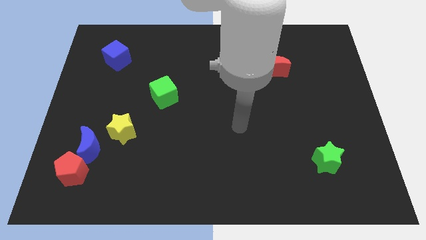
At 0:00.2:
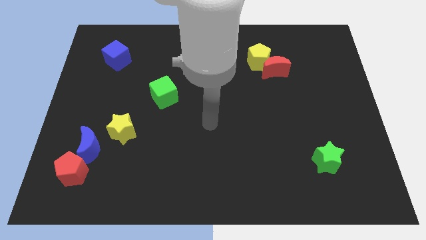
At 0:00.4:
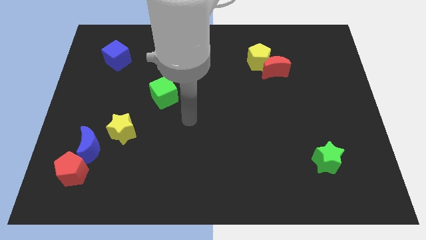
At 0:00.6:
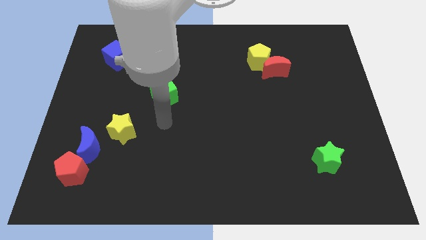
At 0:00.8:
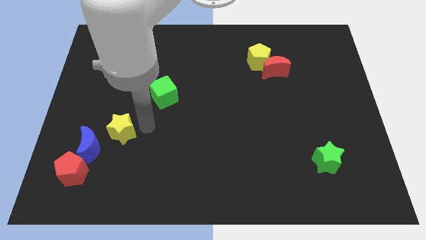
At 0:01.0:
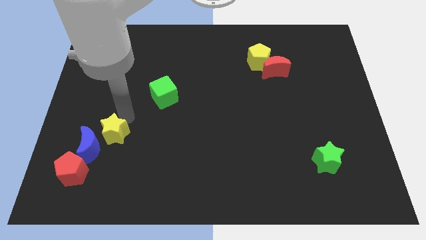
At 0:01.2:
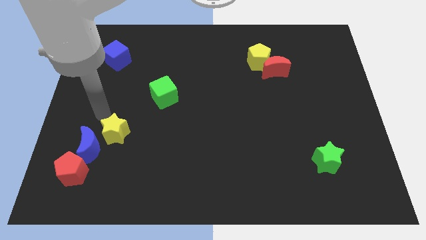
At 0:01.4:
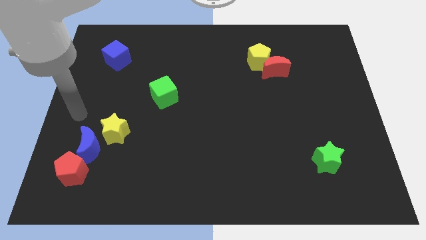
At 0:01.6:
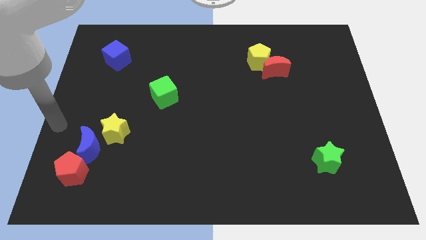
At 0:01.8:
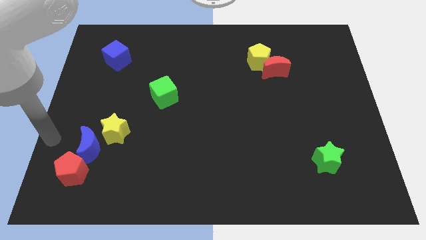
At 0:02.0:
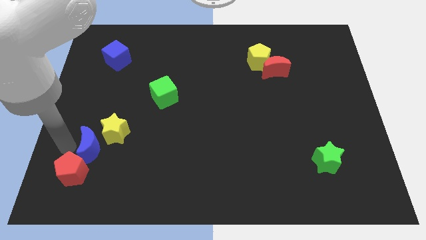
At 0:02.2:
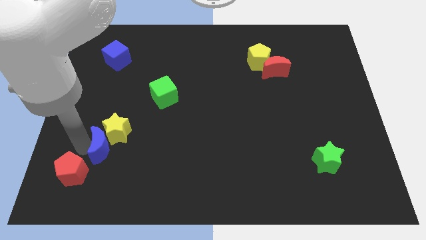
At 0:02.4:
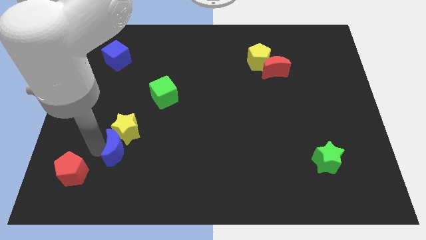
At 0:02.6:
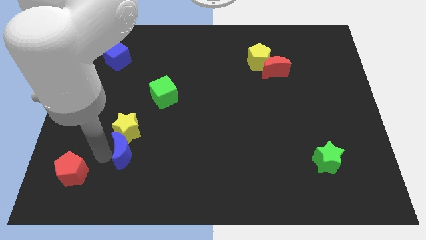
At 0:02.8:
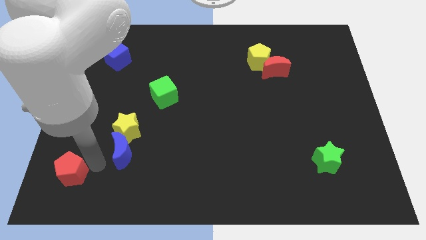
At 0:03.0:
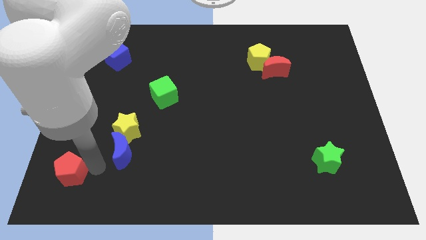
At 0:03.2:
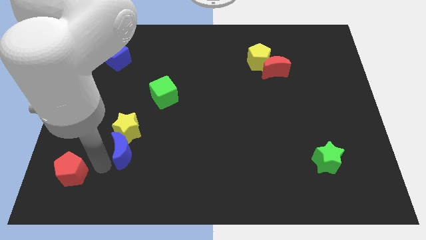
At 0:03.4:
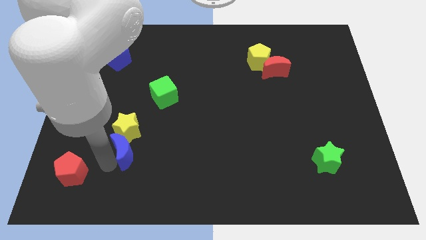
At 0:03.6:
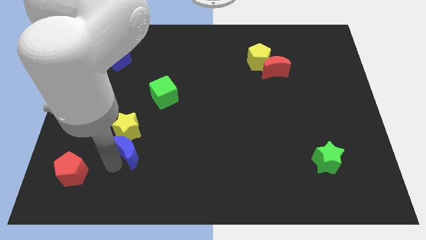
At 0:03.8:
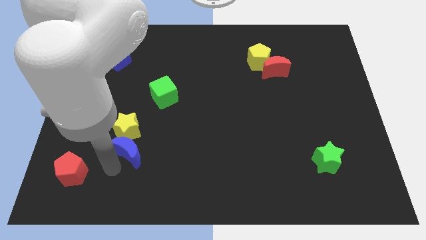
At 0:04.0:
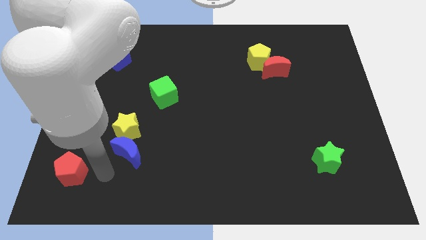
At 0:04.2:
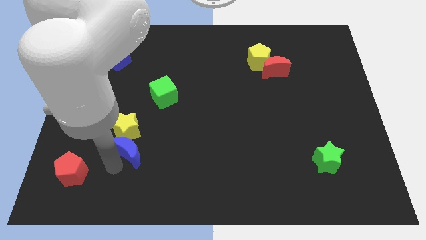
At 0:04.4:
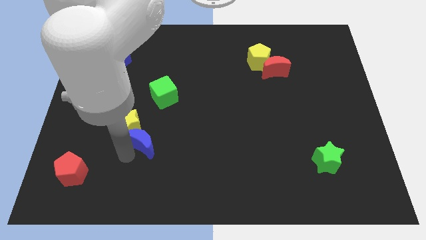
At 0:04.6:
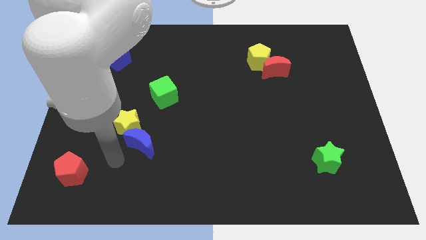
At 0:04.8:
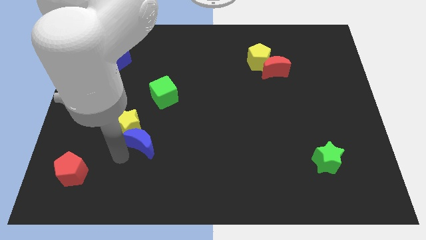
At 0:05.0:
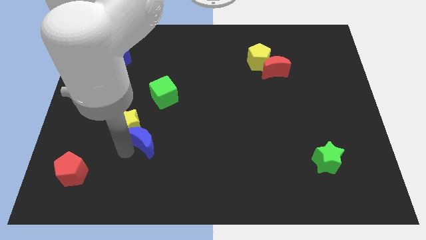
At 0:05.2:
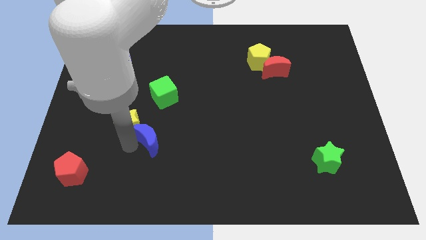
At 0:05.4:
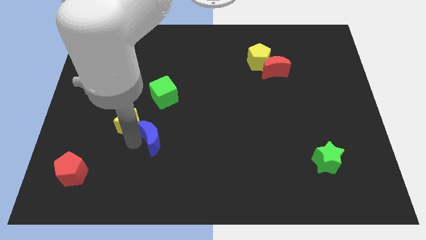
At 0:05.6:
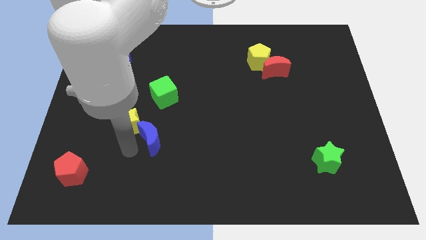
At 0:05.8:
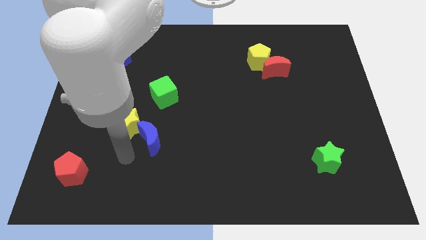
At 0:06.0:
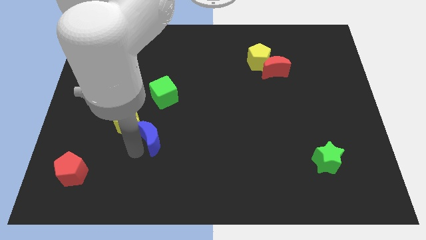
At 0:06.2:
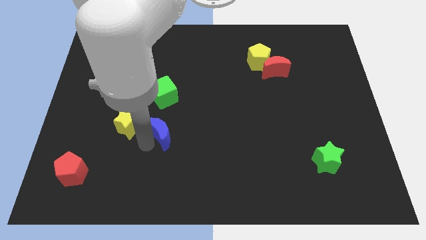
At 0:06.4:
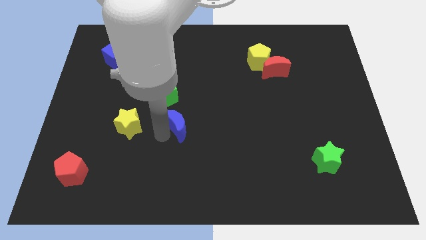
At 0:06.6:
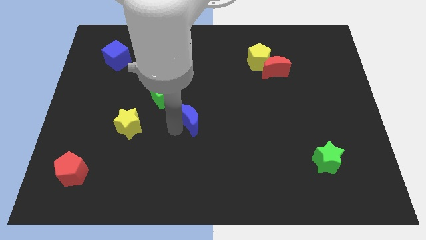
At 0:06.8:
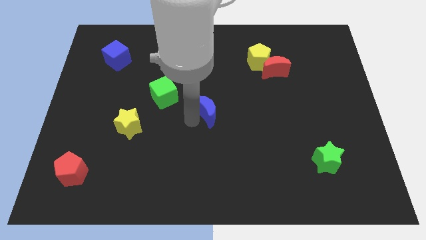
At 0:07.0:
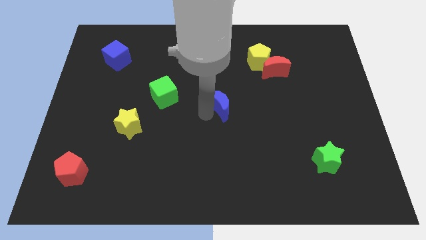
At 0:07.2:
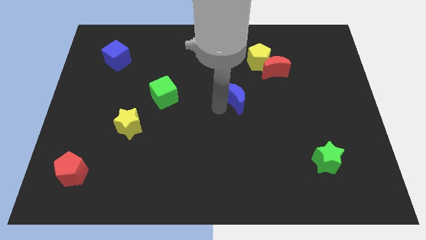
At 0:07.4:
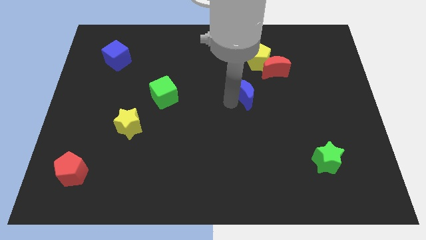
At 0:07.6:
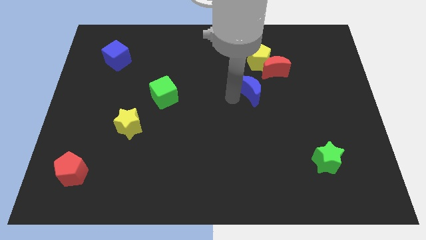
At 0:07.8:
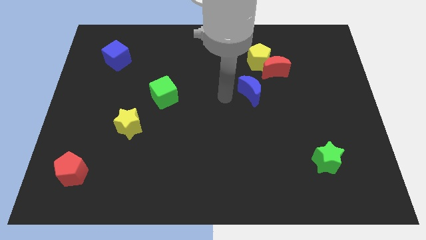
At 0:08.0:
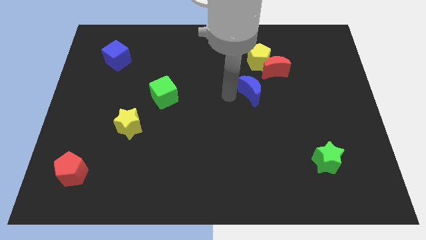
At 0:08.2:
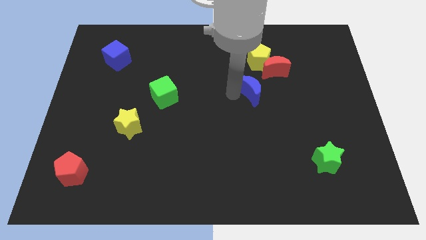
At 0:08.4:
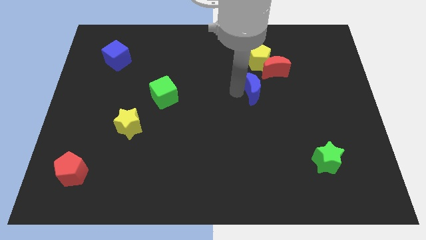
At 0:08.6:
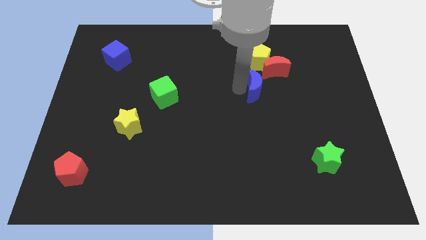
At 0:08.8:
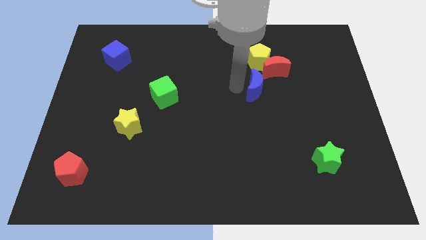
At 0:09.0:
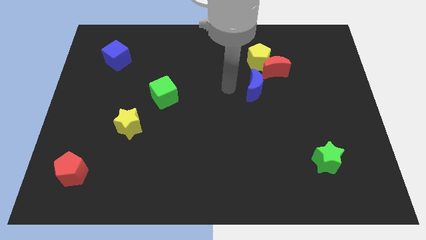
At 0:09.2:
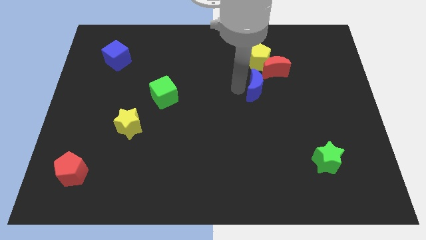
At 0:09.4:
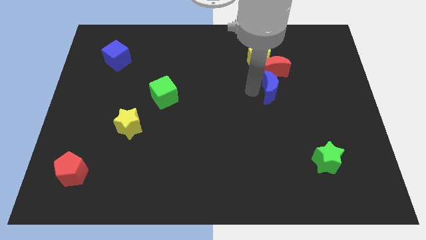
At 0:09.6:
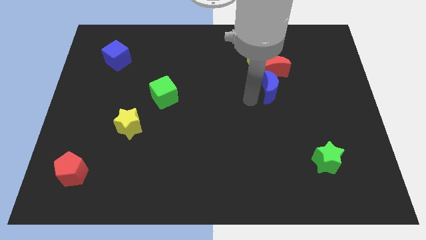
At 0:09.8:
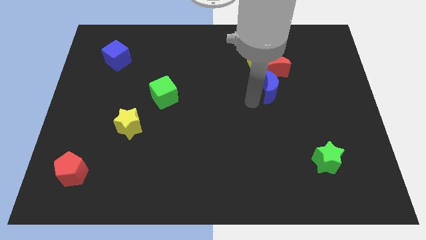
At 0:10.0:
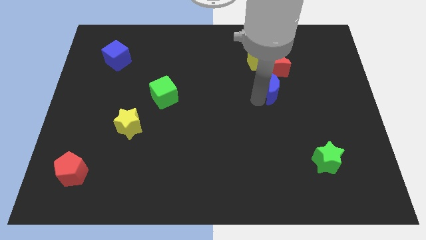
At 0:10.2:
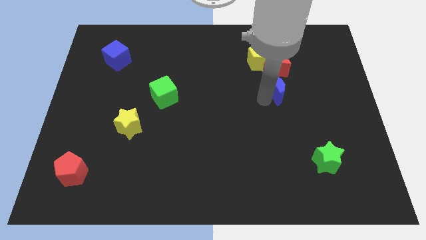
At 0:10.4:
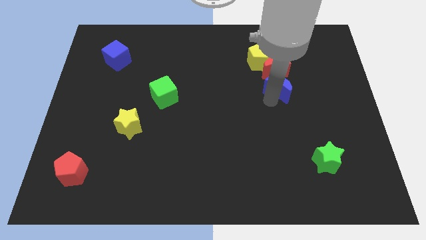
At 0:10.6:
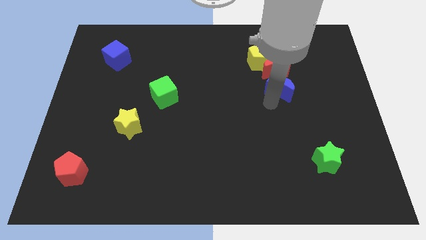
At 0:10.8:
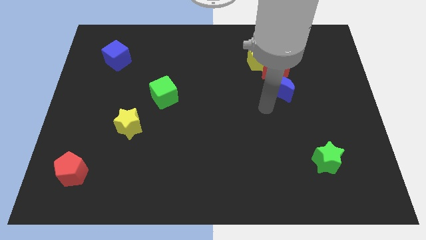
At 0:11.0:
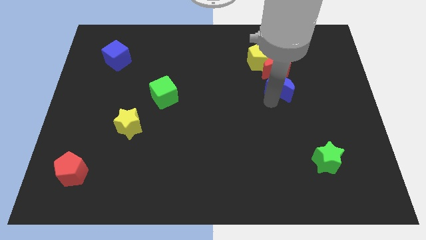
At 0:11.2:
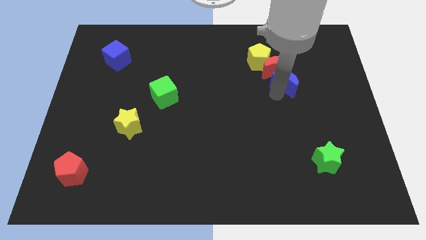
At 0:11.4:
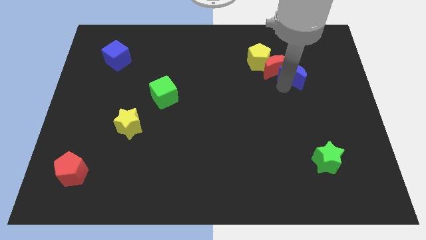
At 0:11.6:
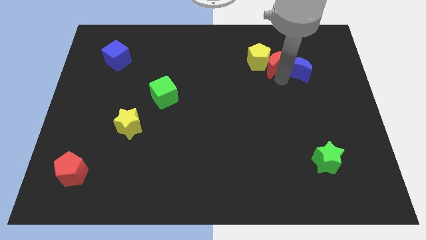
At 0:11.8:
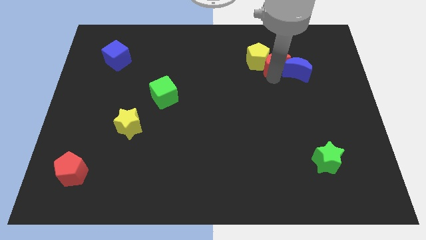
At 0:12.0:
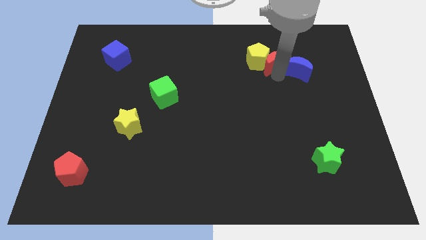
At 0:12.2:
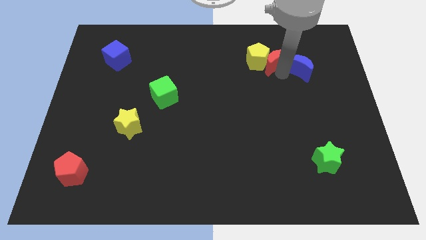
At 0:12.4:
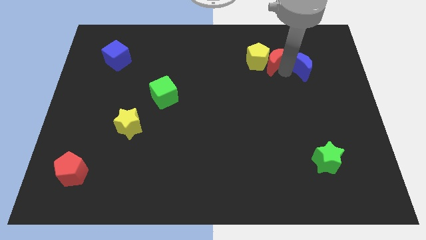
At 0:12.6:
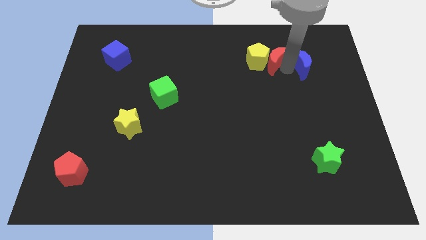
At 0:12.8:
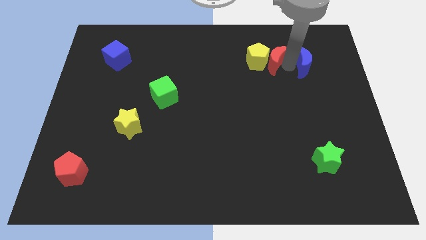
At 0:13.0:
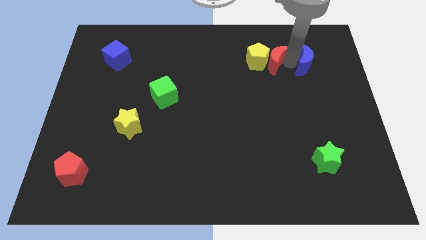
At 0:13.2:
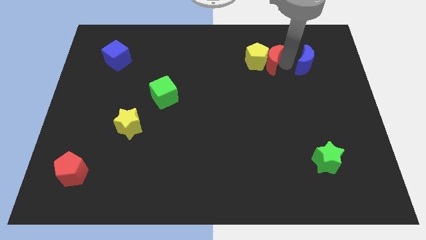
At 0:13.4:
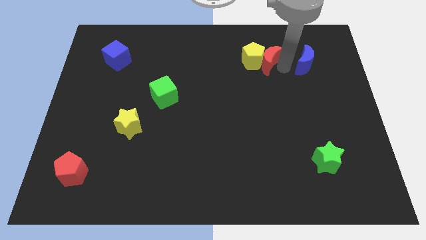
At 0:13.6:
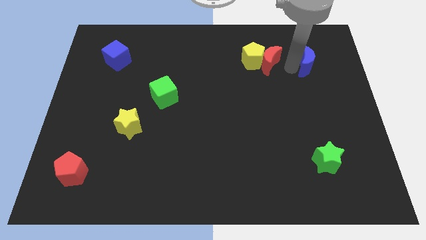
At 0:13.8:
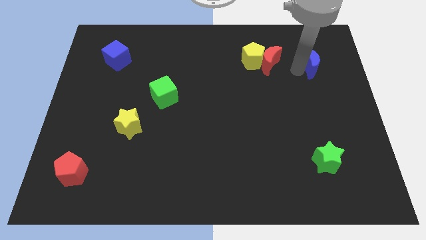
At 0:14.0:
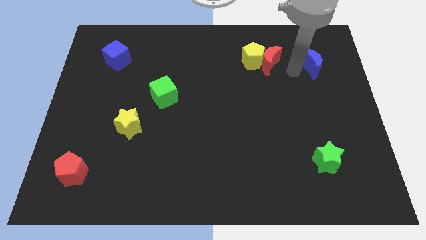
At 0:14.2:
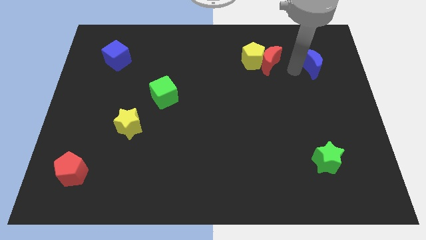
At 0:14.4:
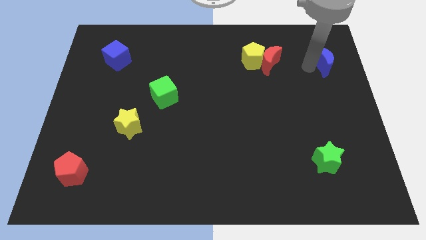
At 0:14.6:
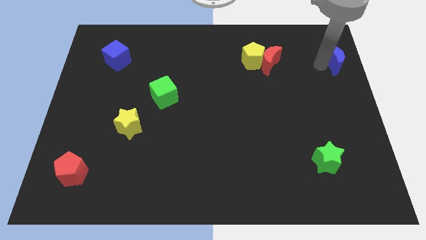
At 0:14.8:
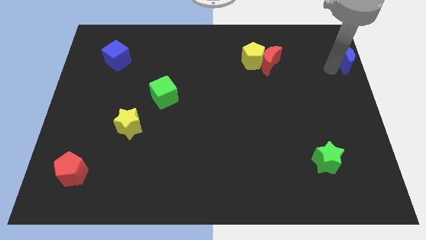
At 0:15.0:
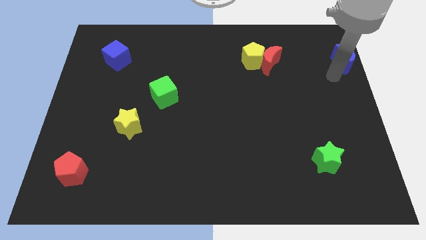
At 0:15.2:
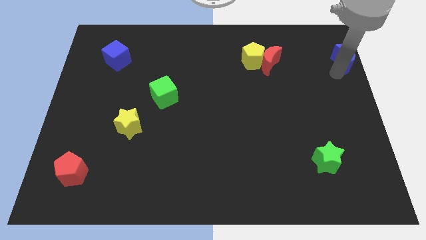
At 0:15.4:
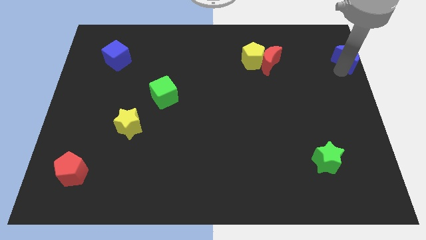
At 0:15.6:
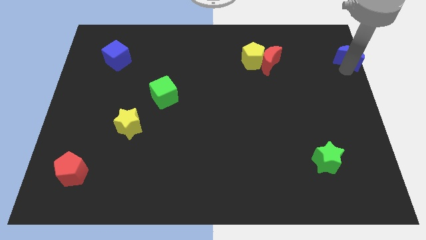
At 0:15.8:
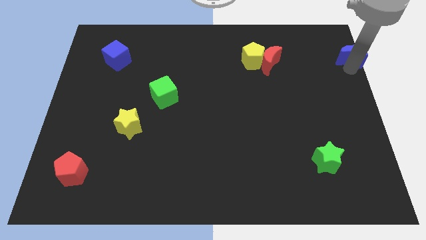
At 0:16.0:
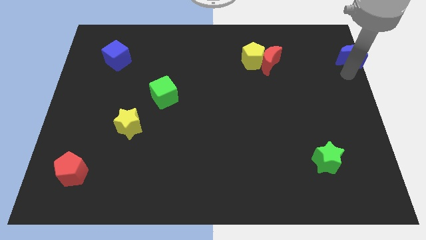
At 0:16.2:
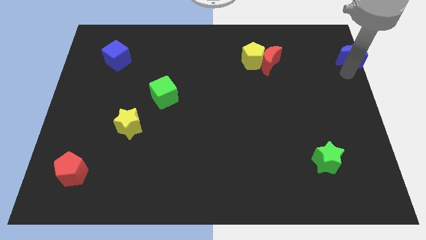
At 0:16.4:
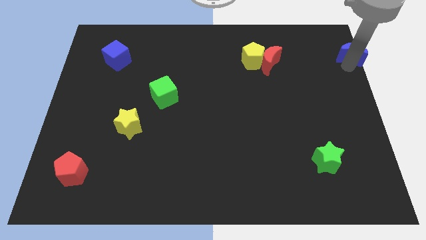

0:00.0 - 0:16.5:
move the blue moon to the upper right corner
